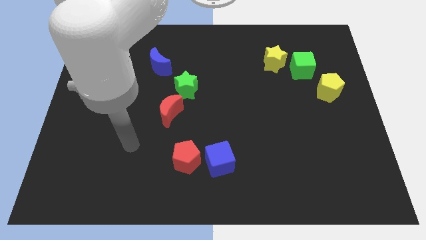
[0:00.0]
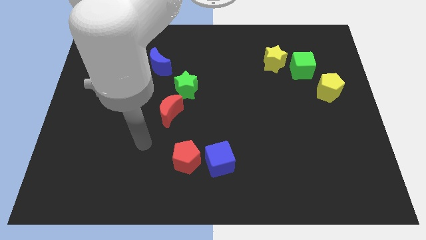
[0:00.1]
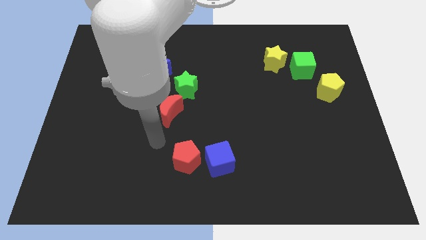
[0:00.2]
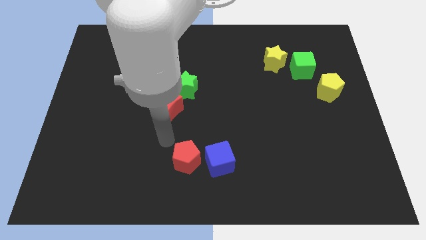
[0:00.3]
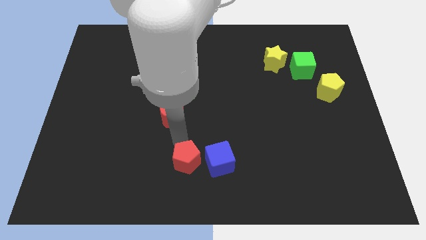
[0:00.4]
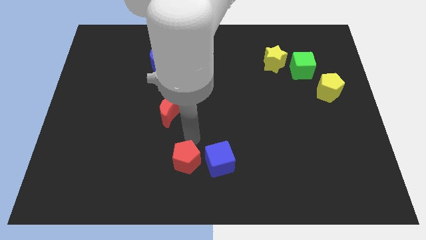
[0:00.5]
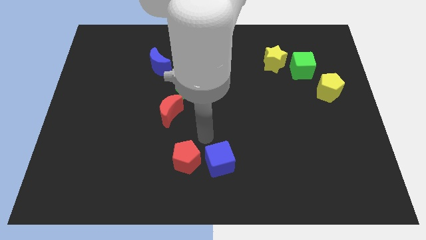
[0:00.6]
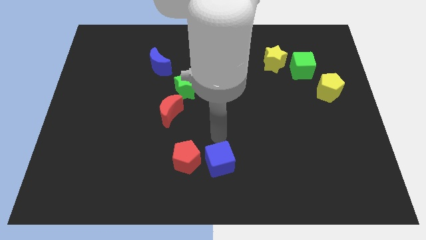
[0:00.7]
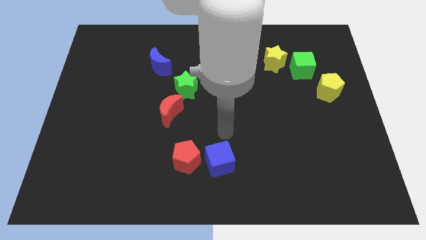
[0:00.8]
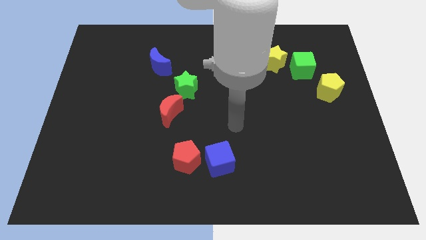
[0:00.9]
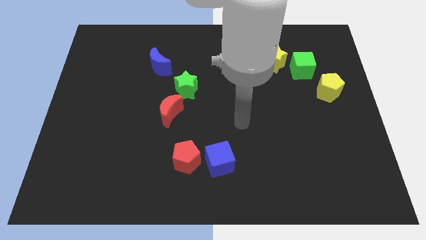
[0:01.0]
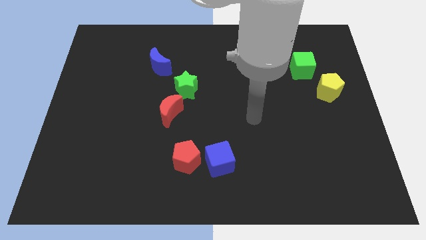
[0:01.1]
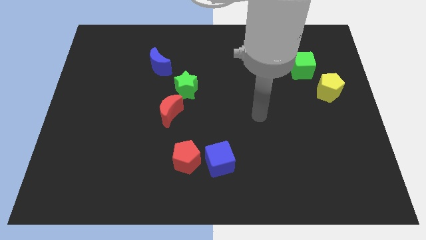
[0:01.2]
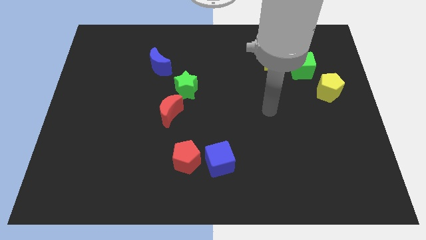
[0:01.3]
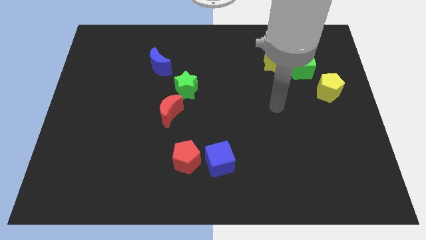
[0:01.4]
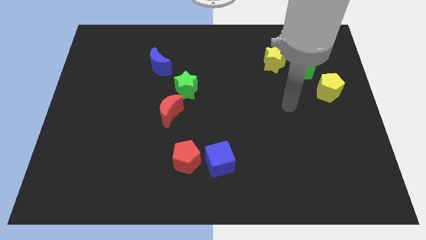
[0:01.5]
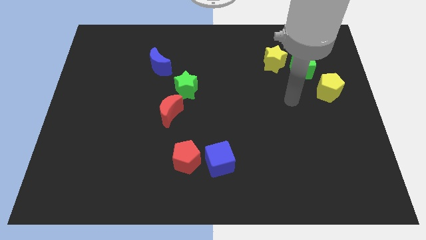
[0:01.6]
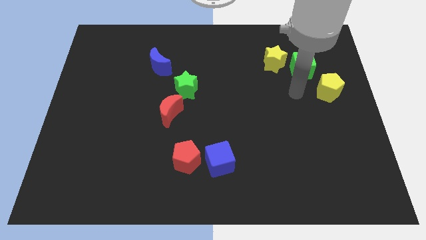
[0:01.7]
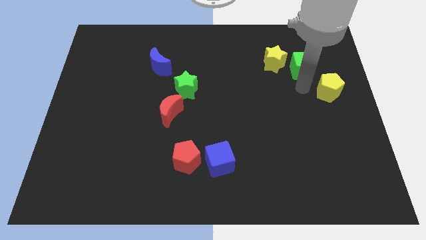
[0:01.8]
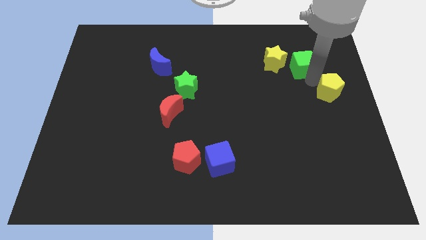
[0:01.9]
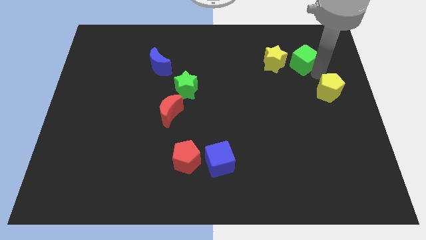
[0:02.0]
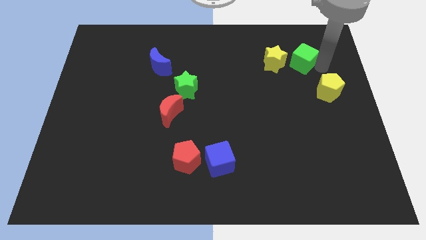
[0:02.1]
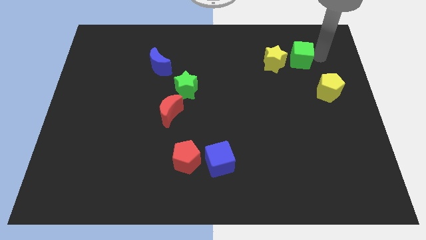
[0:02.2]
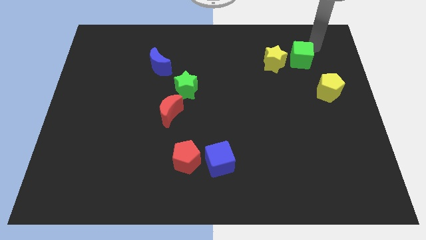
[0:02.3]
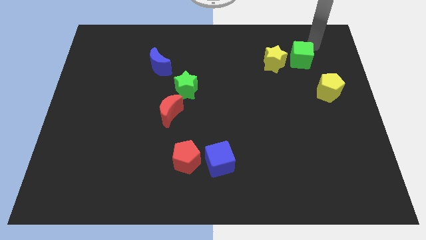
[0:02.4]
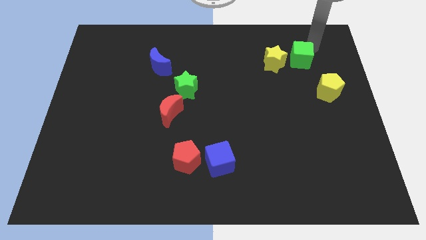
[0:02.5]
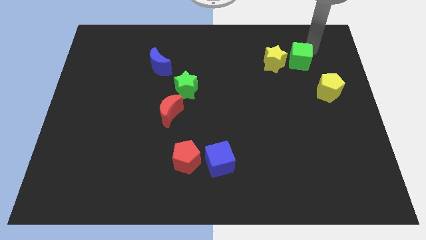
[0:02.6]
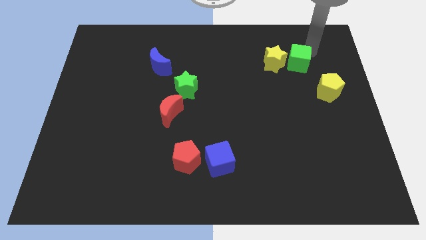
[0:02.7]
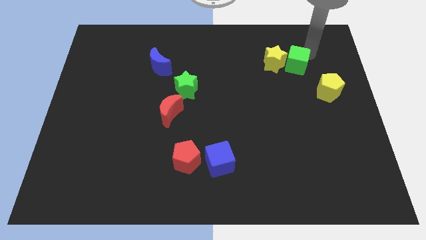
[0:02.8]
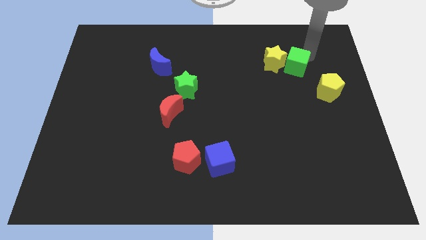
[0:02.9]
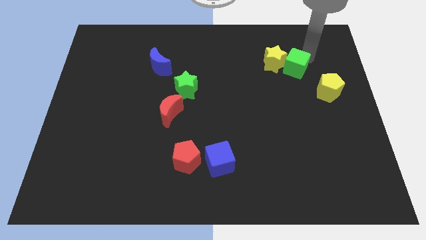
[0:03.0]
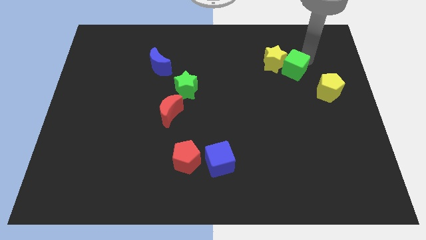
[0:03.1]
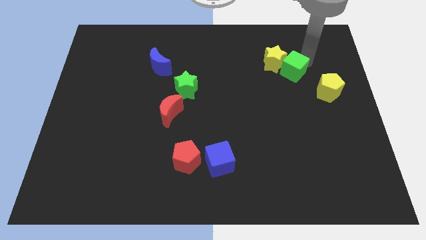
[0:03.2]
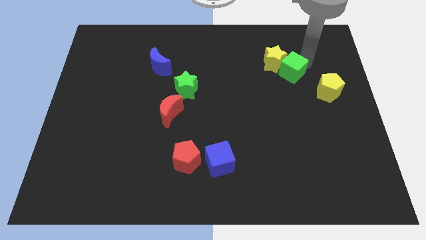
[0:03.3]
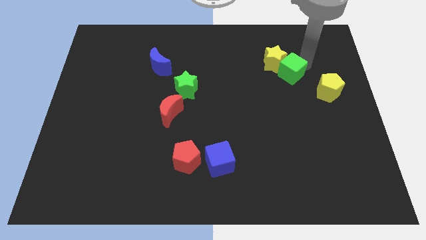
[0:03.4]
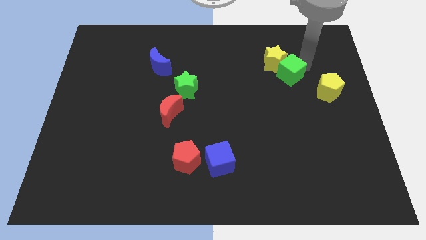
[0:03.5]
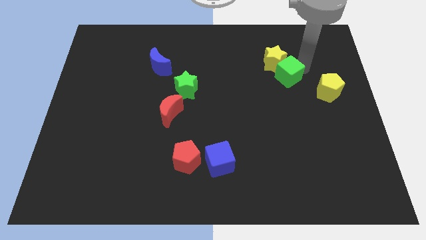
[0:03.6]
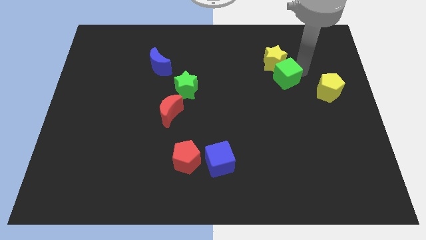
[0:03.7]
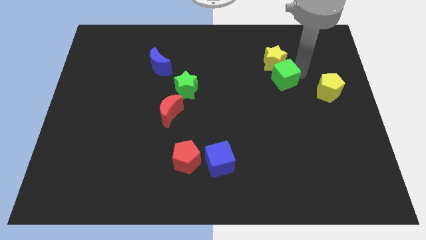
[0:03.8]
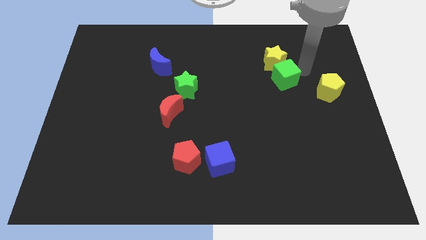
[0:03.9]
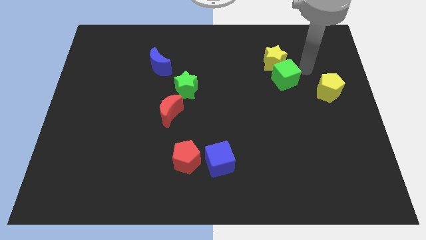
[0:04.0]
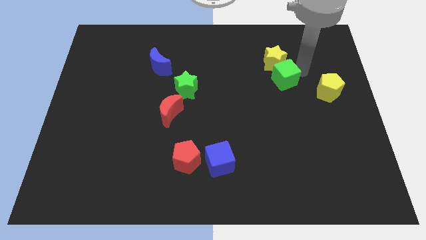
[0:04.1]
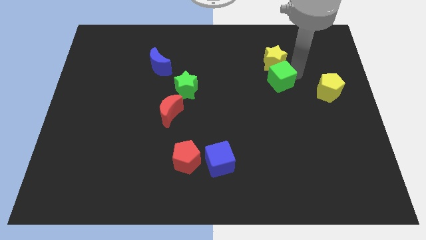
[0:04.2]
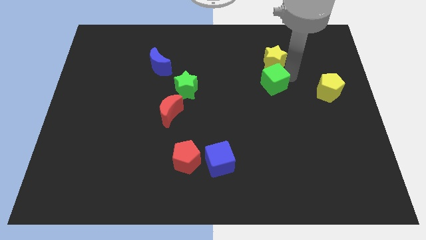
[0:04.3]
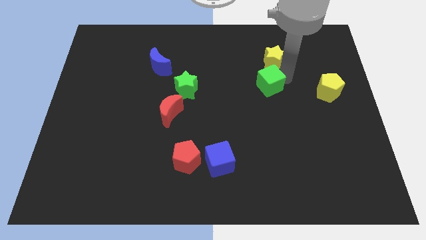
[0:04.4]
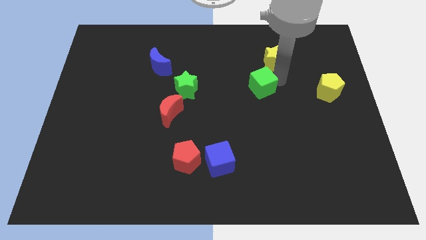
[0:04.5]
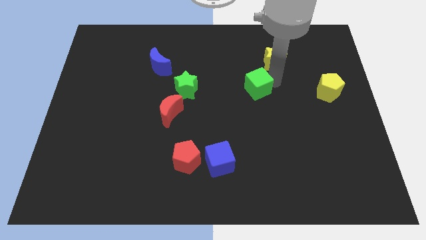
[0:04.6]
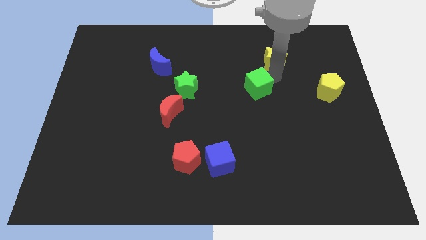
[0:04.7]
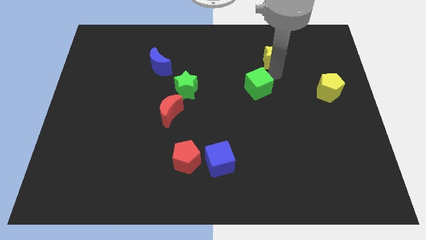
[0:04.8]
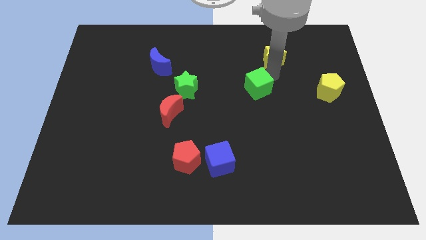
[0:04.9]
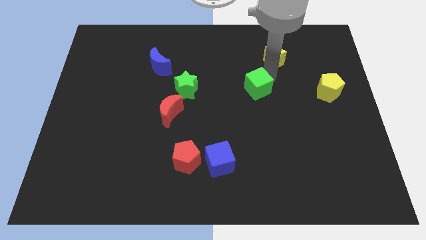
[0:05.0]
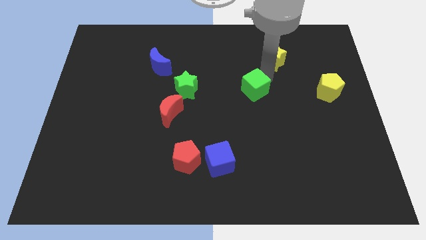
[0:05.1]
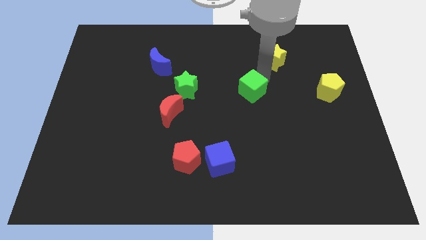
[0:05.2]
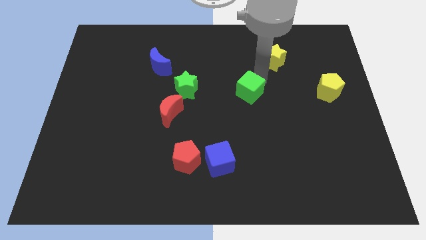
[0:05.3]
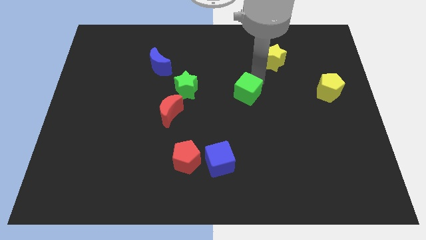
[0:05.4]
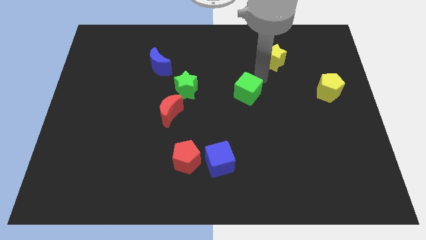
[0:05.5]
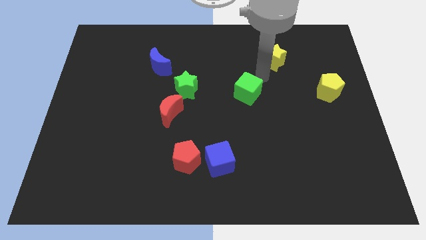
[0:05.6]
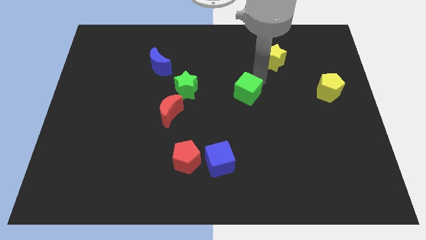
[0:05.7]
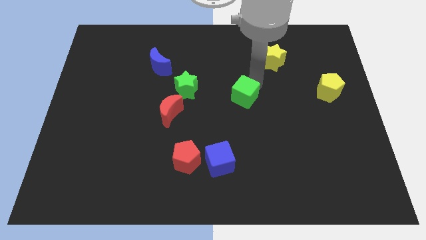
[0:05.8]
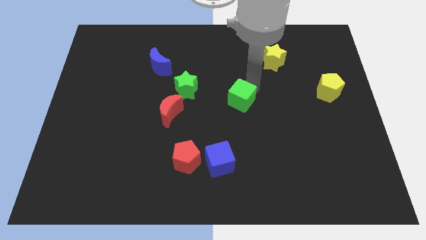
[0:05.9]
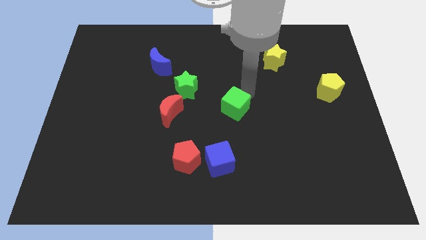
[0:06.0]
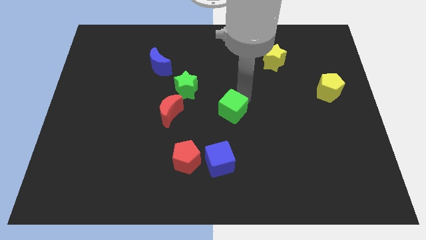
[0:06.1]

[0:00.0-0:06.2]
slide the green cube to the top side of the blue cube
